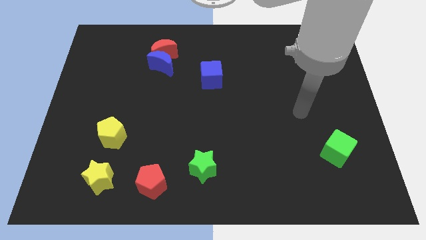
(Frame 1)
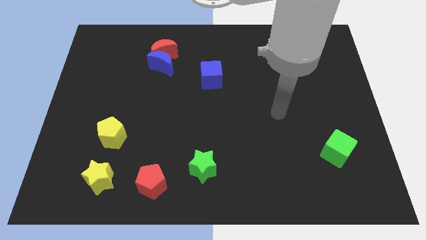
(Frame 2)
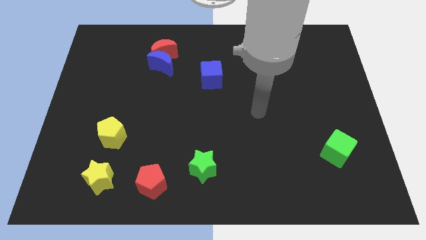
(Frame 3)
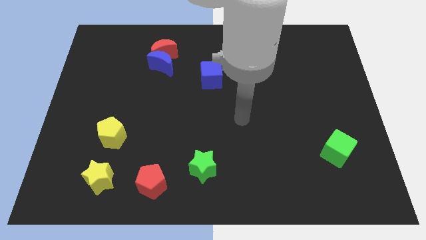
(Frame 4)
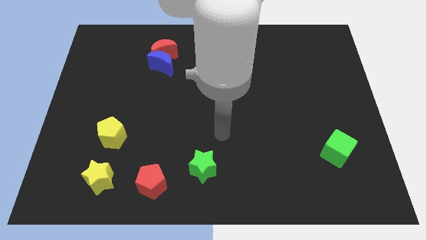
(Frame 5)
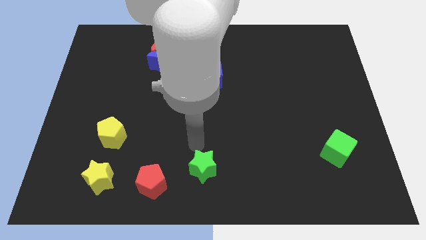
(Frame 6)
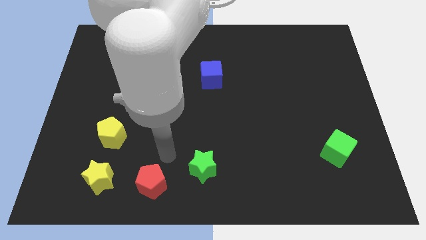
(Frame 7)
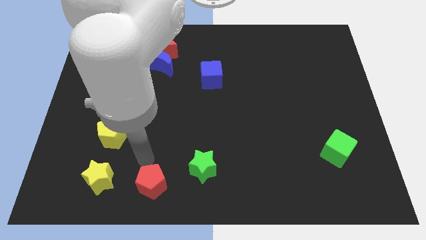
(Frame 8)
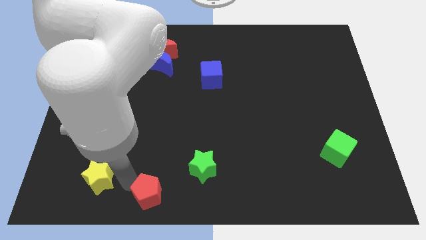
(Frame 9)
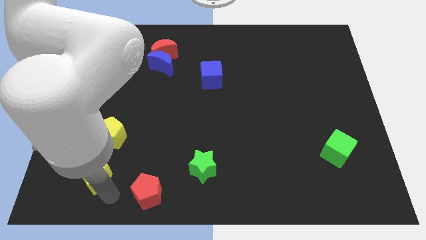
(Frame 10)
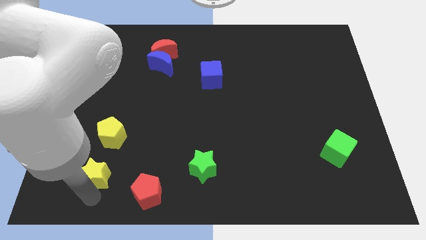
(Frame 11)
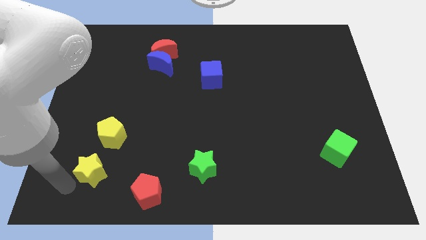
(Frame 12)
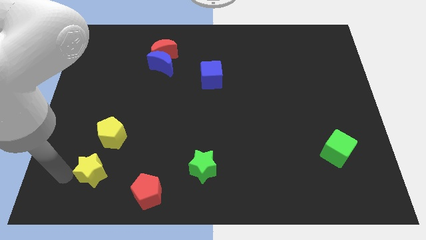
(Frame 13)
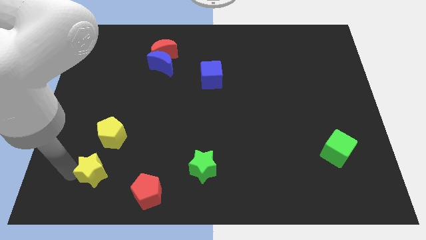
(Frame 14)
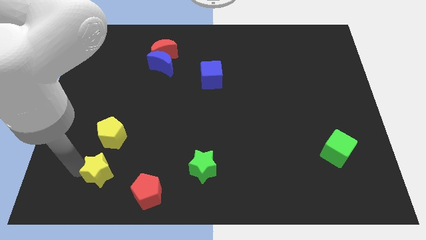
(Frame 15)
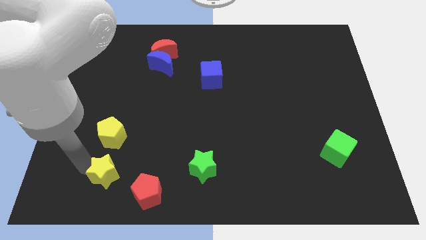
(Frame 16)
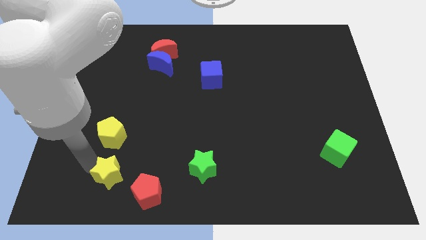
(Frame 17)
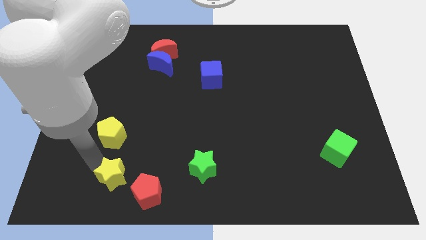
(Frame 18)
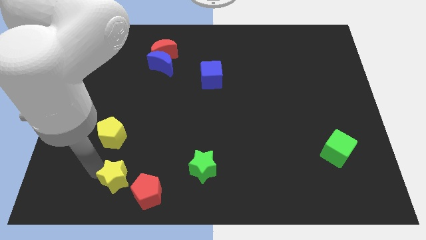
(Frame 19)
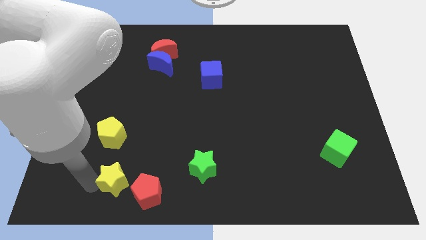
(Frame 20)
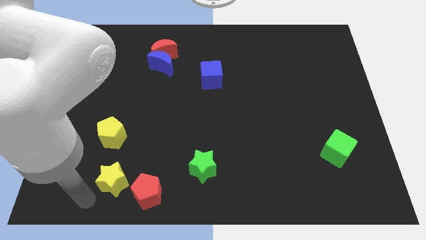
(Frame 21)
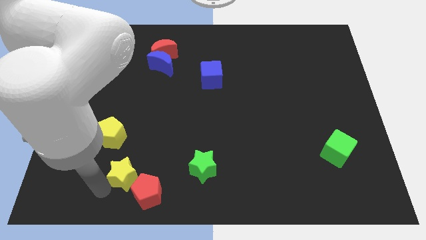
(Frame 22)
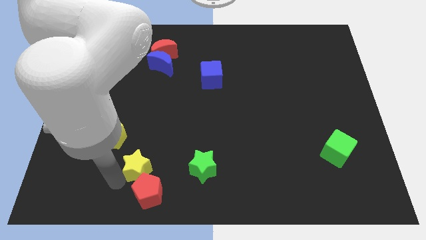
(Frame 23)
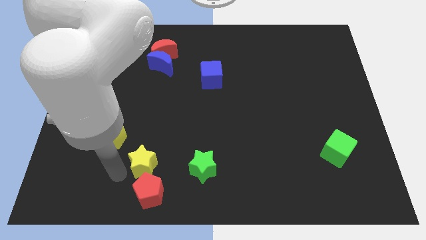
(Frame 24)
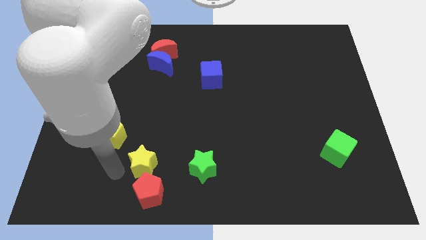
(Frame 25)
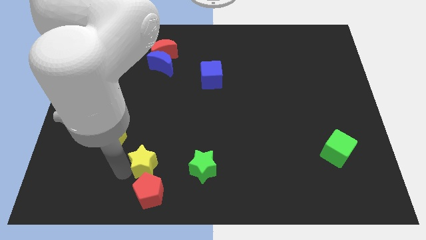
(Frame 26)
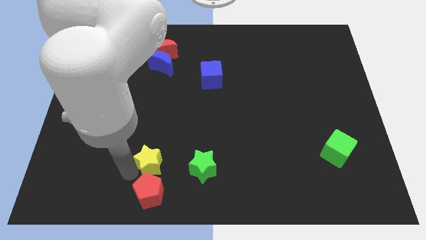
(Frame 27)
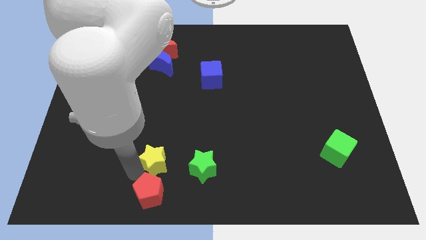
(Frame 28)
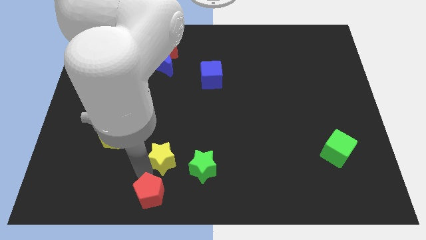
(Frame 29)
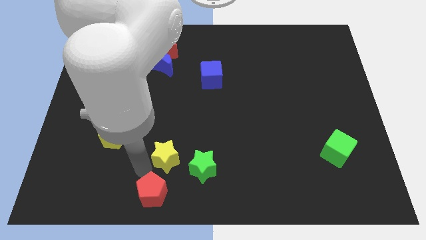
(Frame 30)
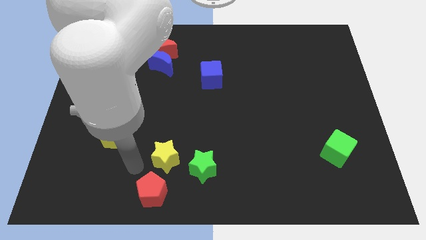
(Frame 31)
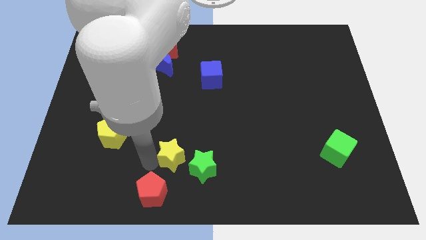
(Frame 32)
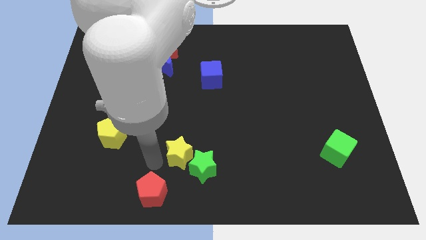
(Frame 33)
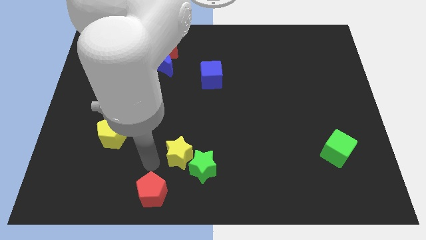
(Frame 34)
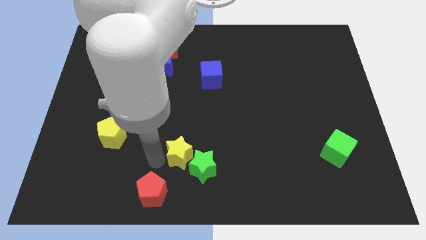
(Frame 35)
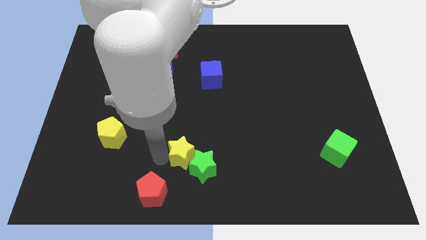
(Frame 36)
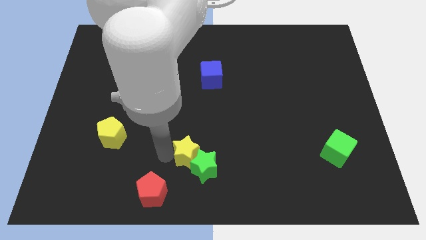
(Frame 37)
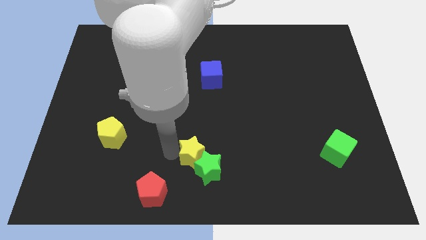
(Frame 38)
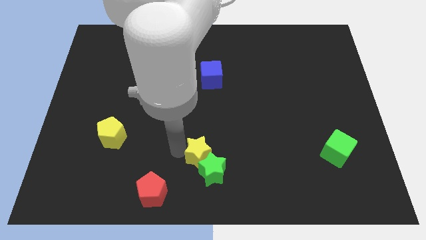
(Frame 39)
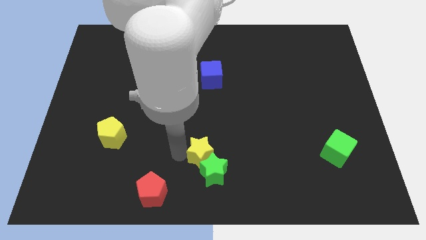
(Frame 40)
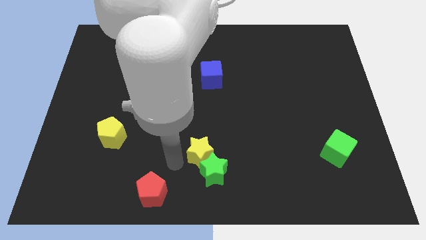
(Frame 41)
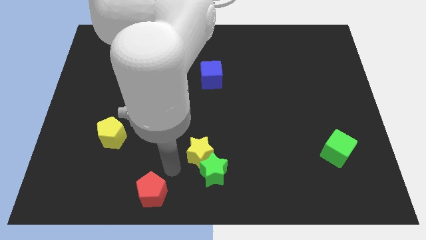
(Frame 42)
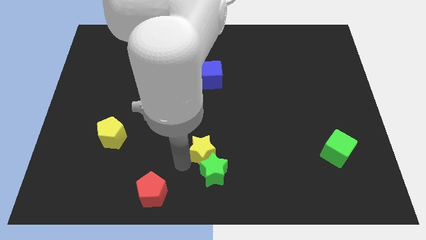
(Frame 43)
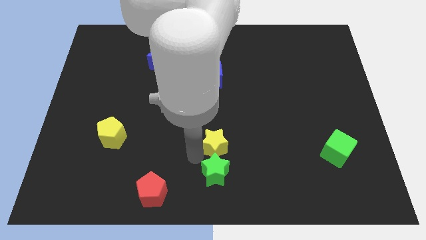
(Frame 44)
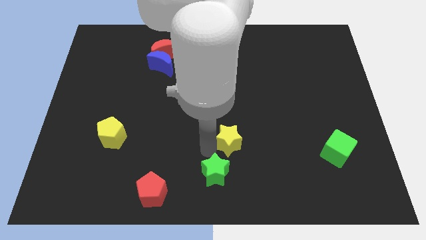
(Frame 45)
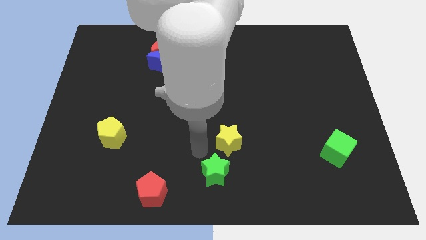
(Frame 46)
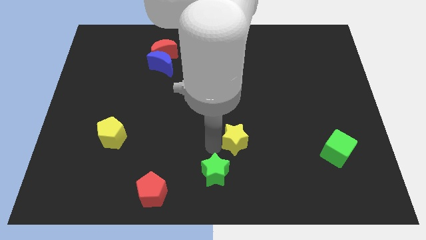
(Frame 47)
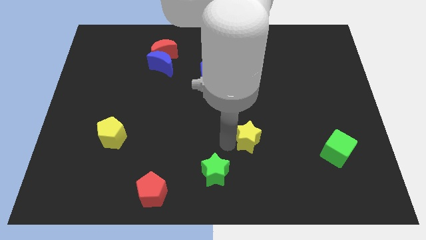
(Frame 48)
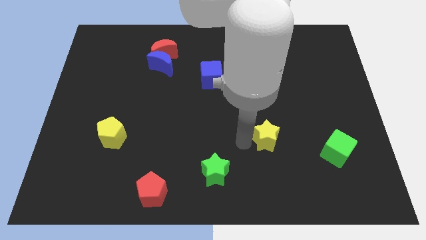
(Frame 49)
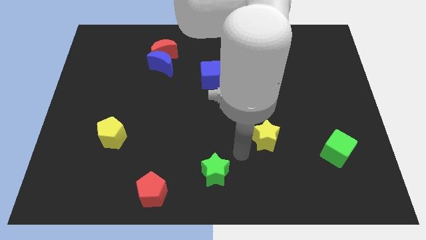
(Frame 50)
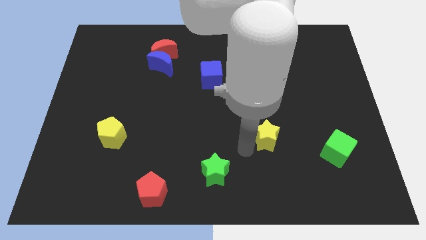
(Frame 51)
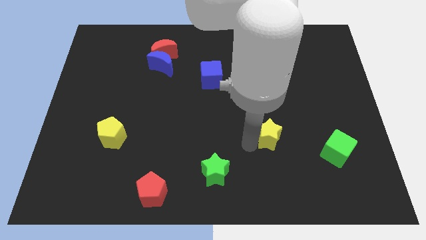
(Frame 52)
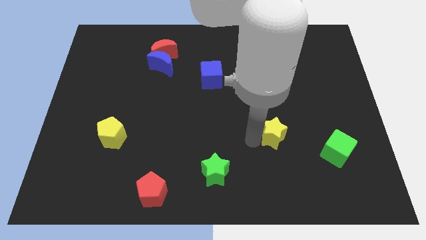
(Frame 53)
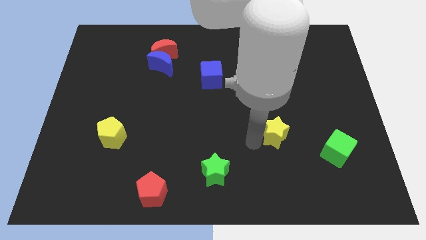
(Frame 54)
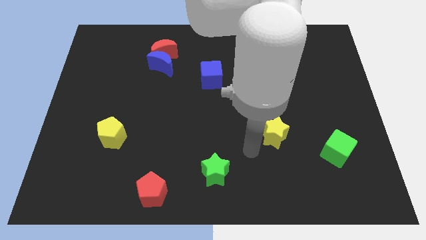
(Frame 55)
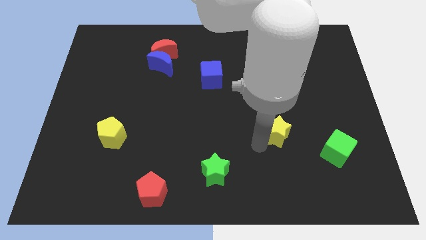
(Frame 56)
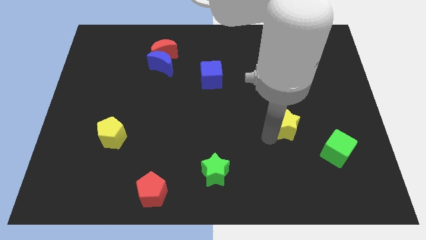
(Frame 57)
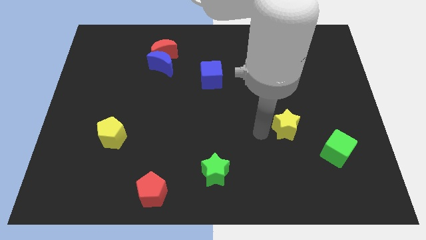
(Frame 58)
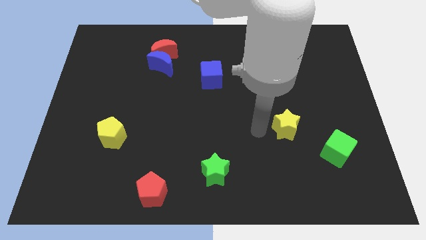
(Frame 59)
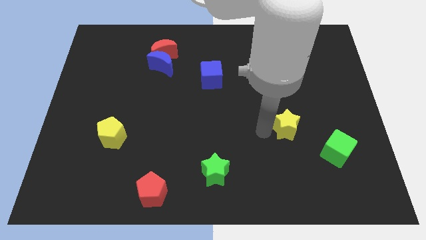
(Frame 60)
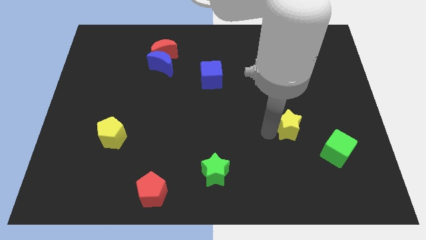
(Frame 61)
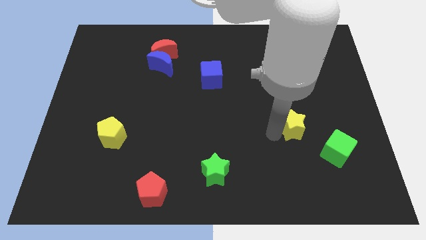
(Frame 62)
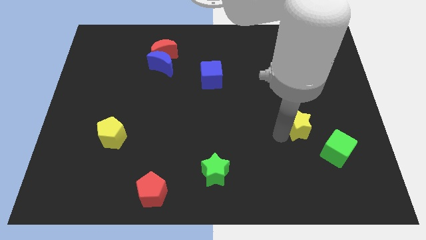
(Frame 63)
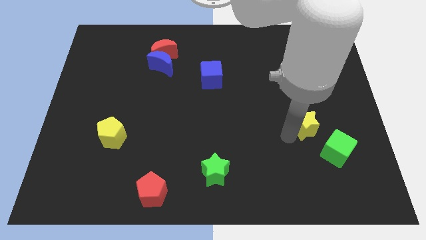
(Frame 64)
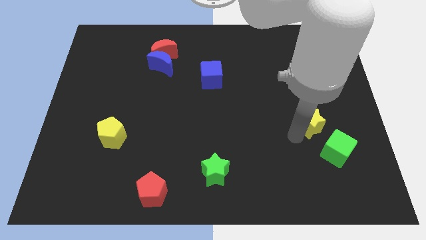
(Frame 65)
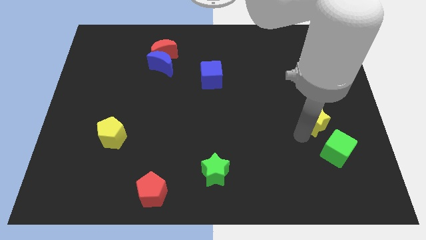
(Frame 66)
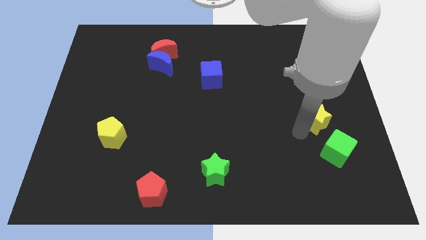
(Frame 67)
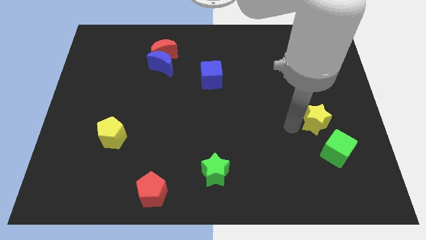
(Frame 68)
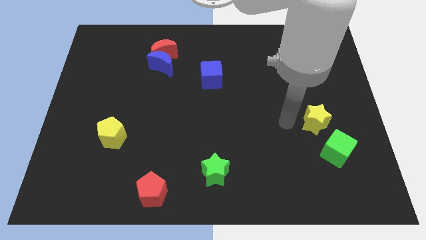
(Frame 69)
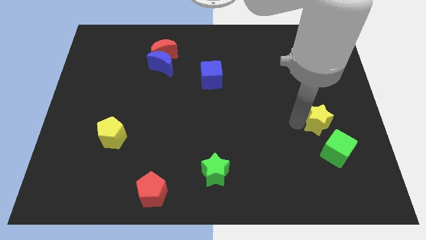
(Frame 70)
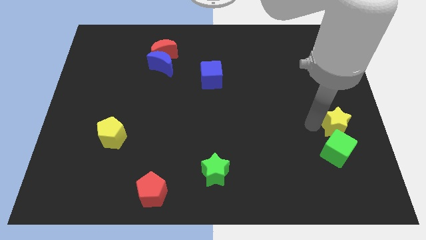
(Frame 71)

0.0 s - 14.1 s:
move the yellow star to the right side of the board
